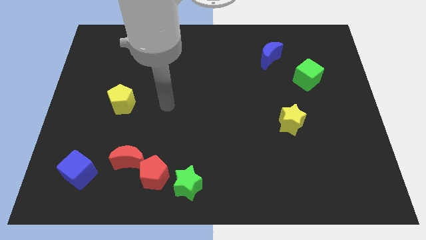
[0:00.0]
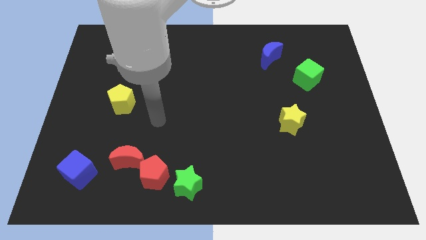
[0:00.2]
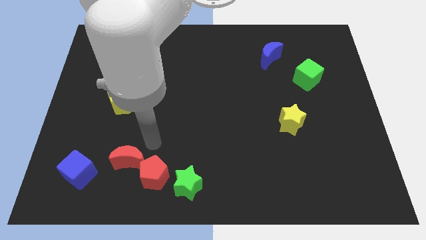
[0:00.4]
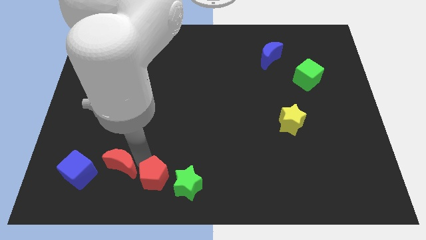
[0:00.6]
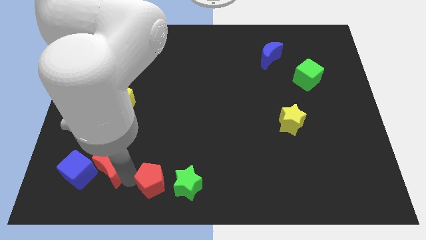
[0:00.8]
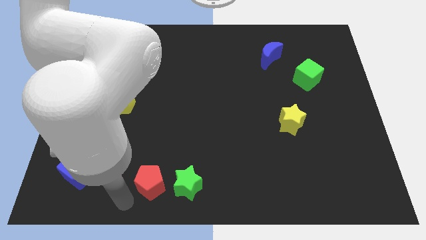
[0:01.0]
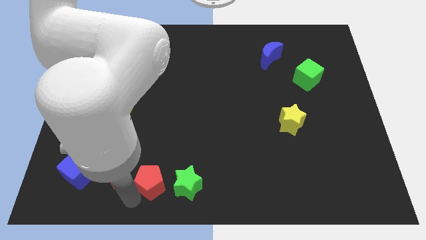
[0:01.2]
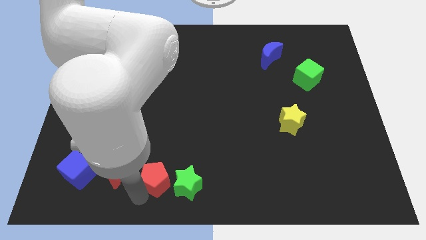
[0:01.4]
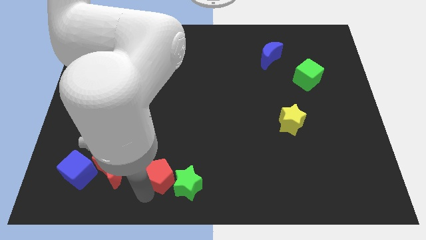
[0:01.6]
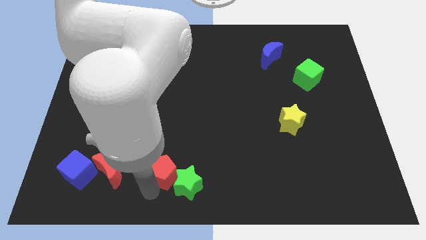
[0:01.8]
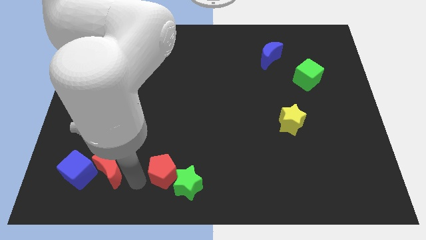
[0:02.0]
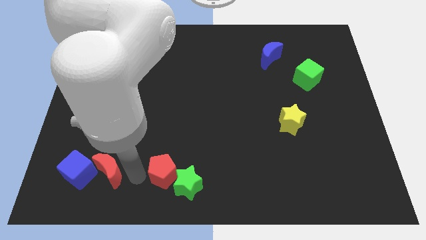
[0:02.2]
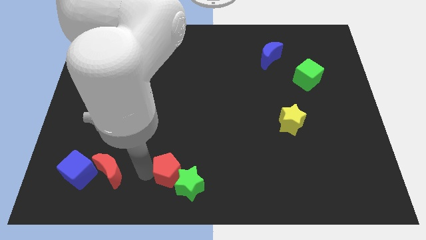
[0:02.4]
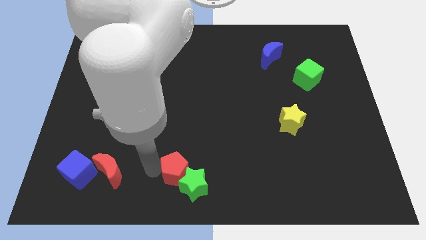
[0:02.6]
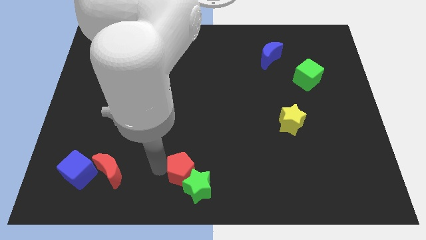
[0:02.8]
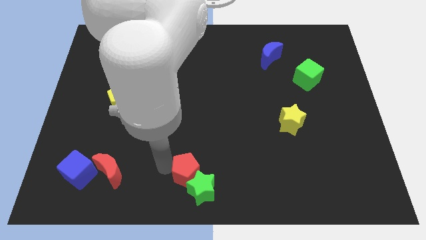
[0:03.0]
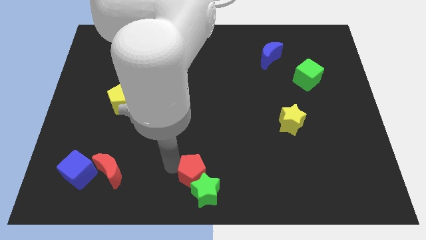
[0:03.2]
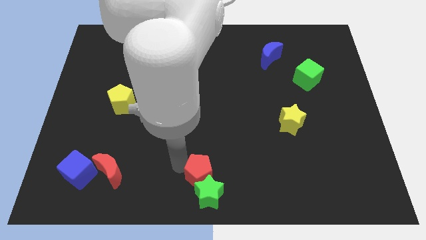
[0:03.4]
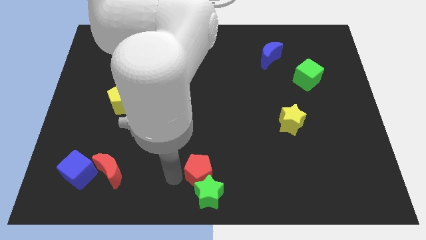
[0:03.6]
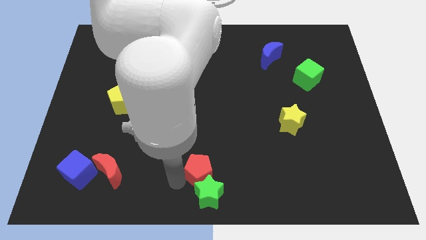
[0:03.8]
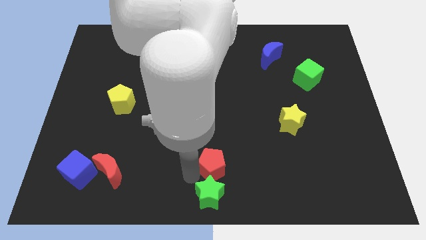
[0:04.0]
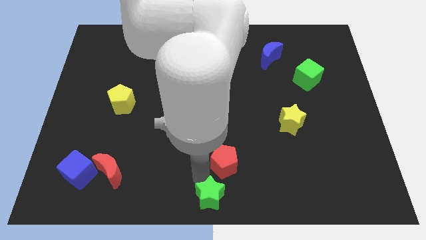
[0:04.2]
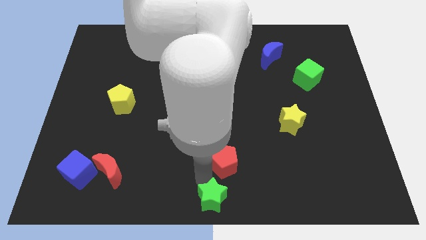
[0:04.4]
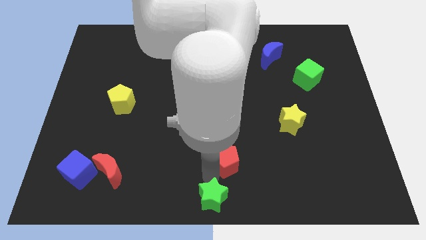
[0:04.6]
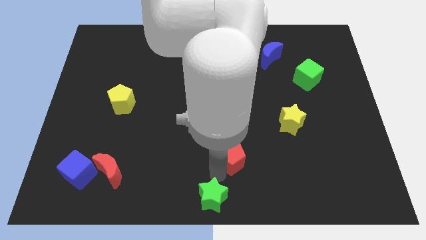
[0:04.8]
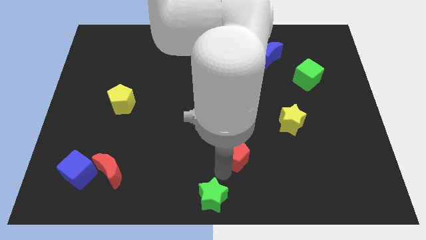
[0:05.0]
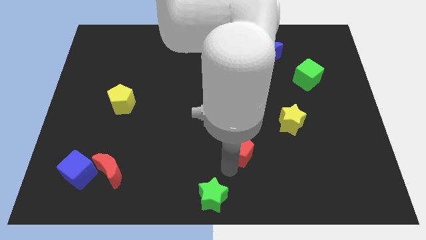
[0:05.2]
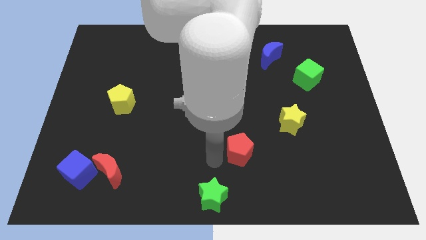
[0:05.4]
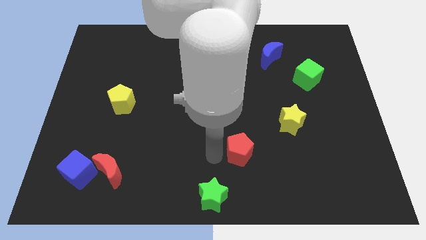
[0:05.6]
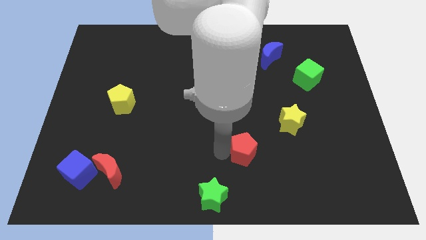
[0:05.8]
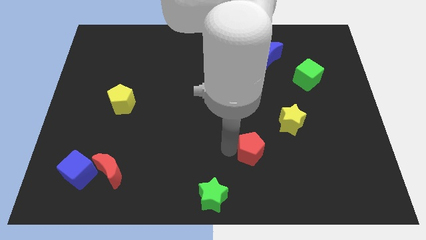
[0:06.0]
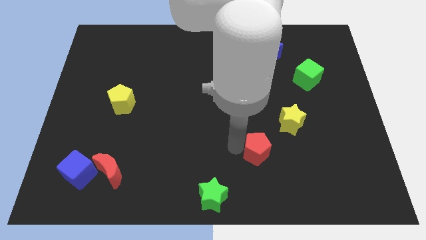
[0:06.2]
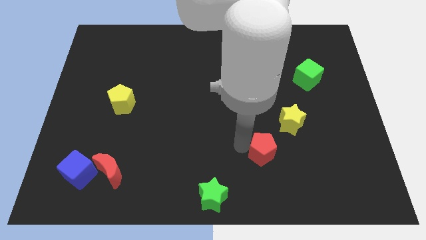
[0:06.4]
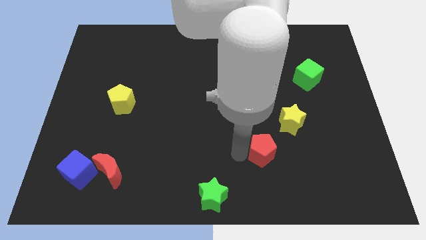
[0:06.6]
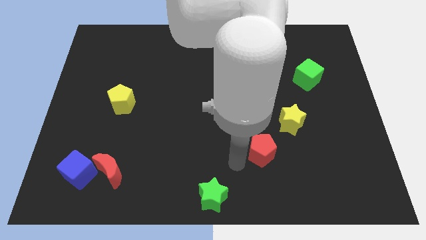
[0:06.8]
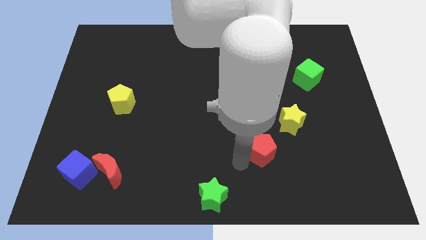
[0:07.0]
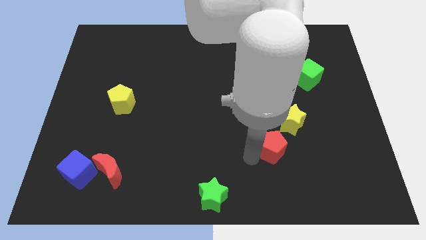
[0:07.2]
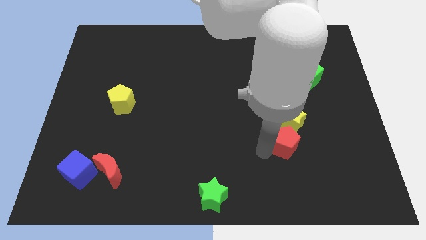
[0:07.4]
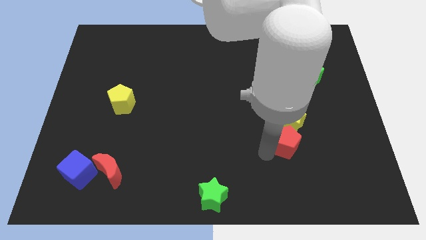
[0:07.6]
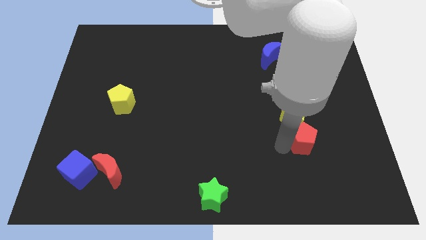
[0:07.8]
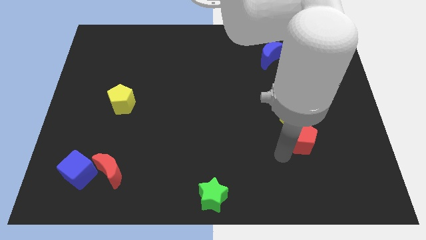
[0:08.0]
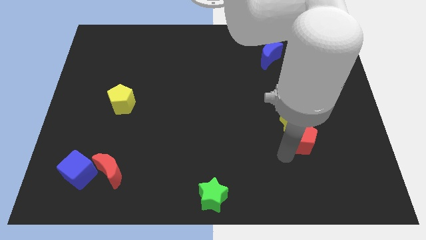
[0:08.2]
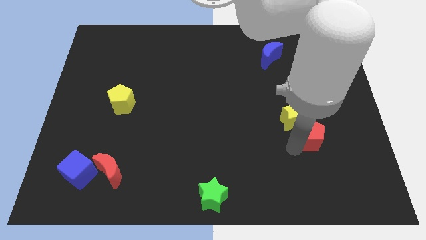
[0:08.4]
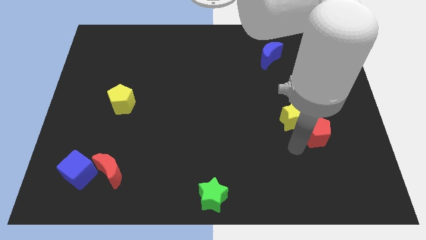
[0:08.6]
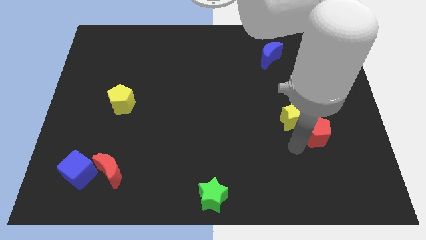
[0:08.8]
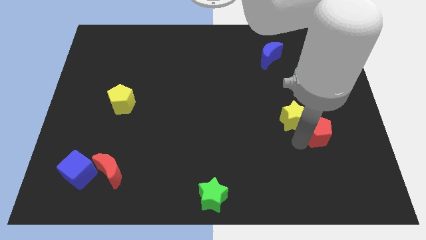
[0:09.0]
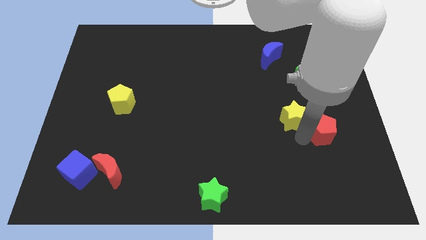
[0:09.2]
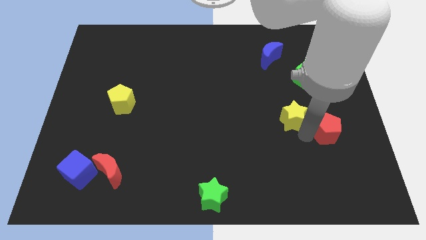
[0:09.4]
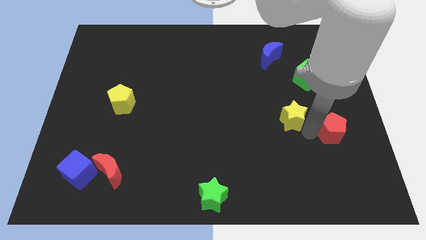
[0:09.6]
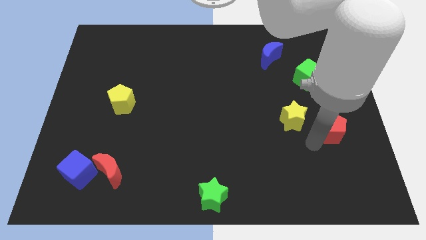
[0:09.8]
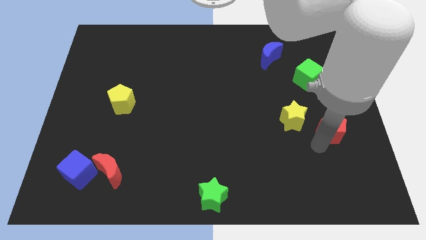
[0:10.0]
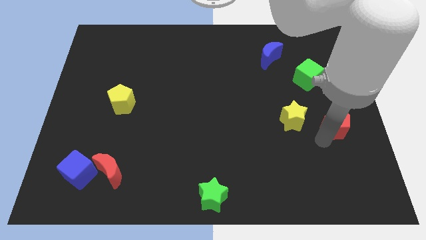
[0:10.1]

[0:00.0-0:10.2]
slide the red pentagon to the center right

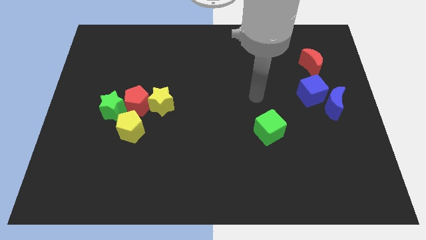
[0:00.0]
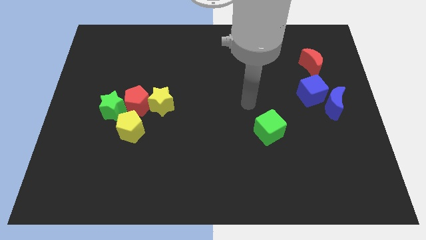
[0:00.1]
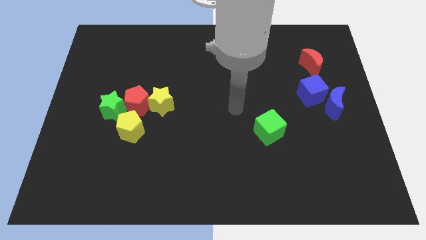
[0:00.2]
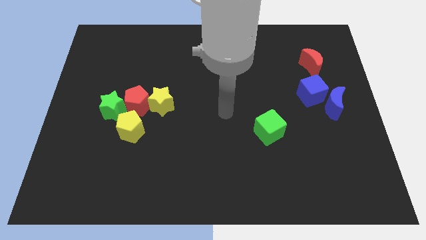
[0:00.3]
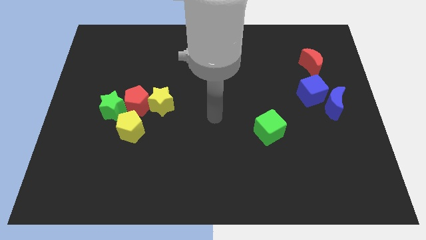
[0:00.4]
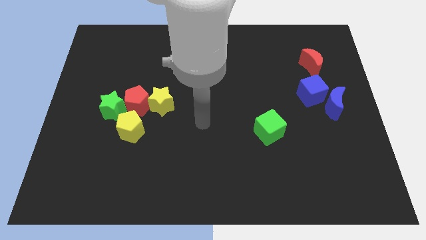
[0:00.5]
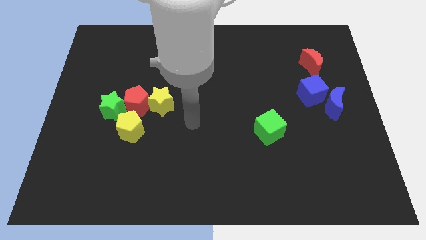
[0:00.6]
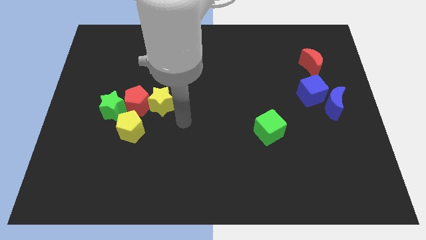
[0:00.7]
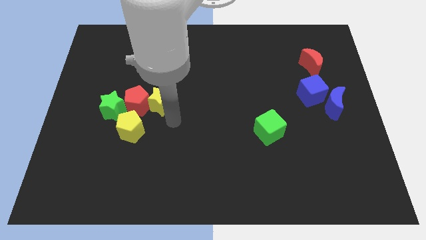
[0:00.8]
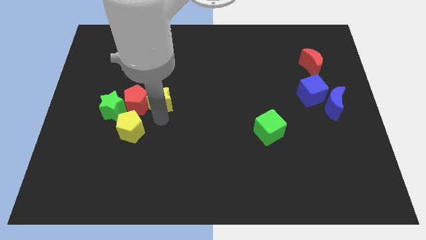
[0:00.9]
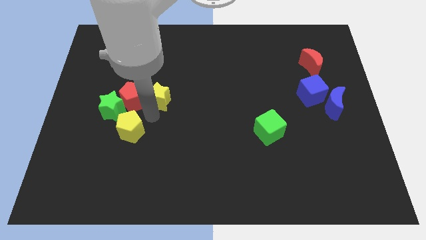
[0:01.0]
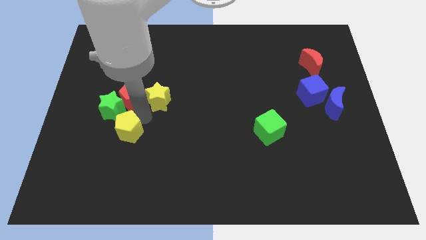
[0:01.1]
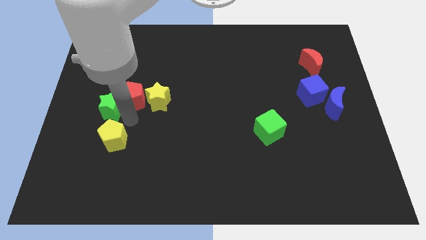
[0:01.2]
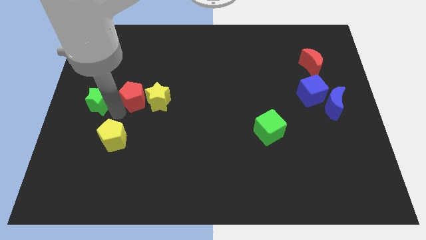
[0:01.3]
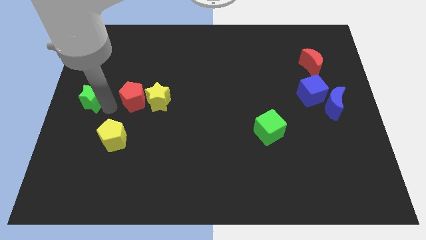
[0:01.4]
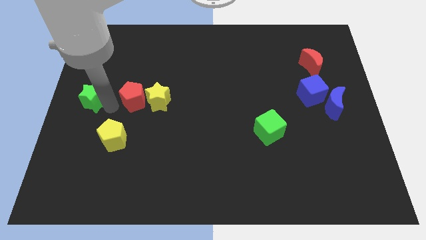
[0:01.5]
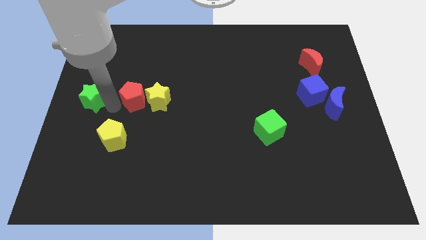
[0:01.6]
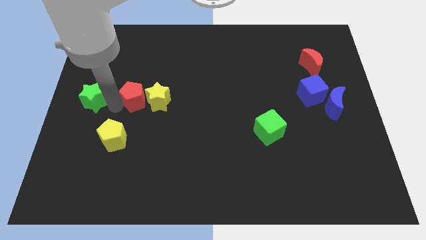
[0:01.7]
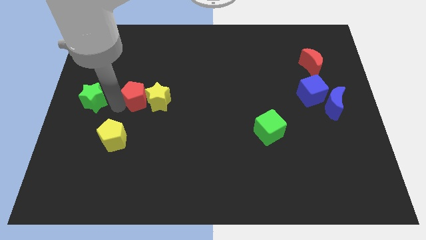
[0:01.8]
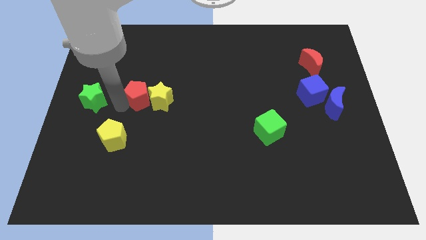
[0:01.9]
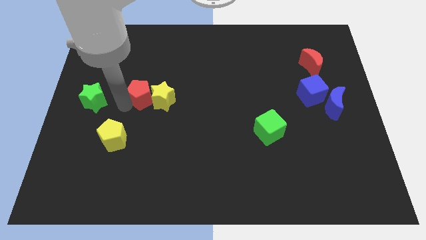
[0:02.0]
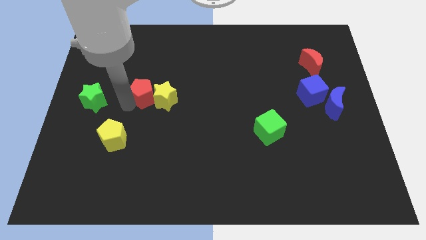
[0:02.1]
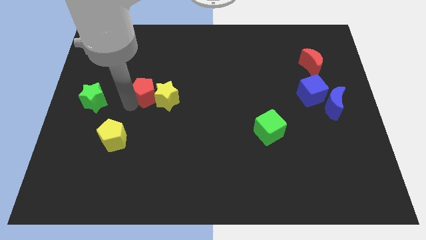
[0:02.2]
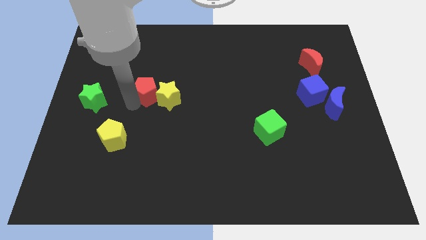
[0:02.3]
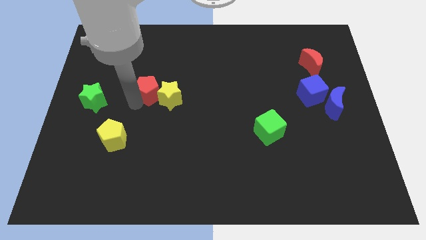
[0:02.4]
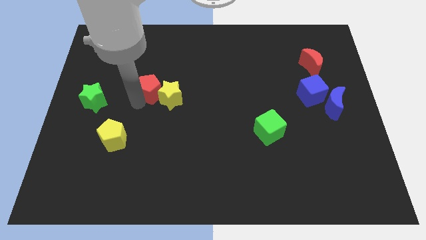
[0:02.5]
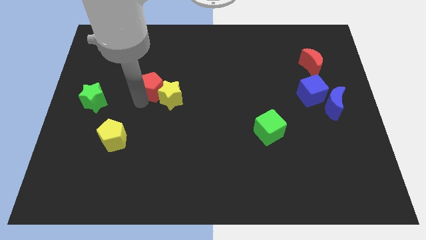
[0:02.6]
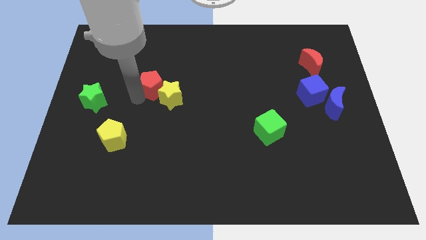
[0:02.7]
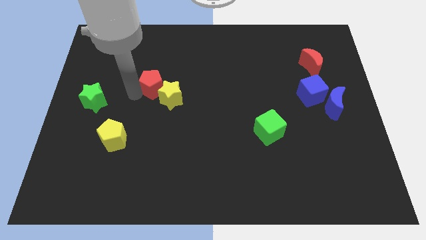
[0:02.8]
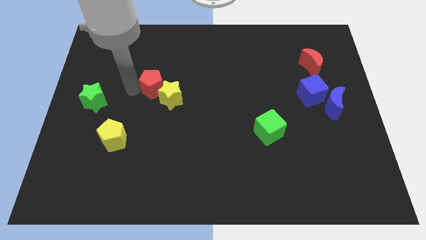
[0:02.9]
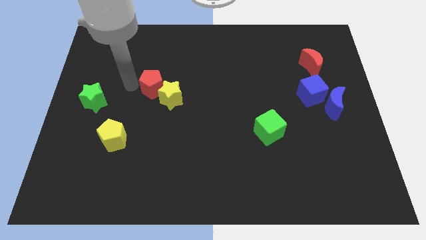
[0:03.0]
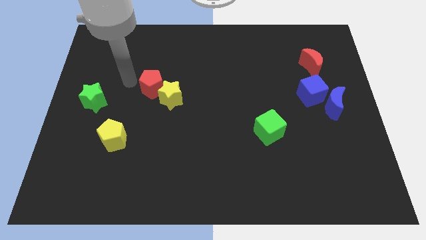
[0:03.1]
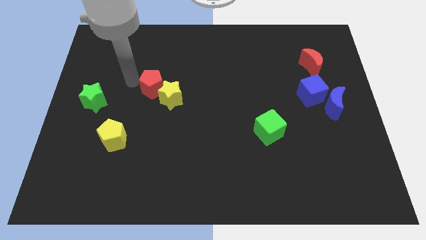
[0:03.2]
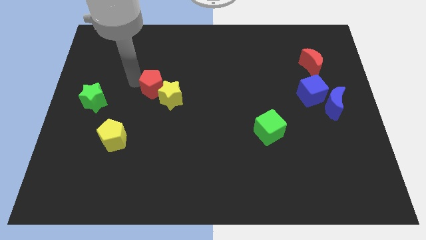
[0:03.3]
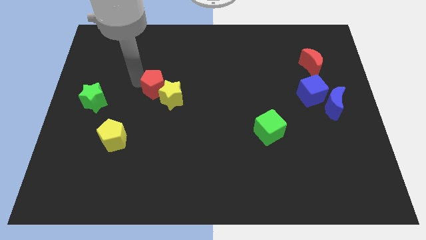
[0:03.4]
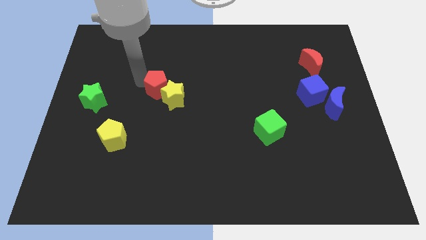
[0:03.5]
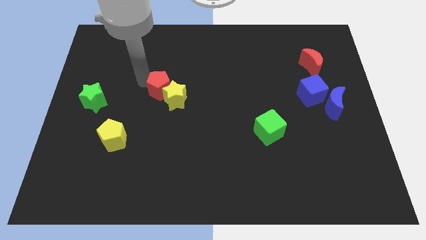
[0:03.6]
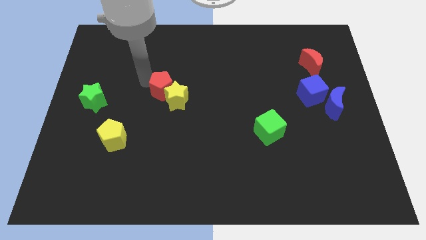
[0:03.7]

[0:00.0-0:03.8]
put the red pentagon to the center of the board
